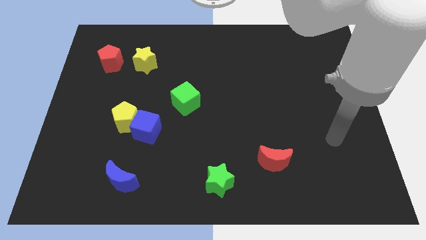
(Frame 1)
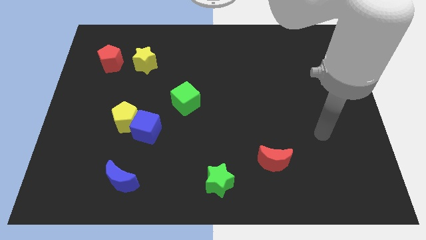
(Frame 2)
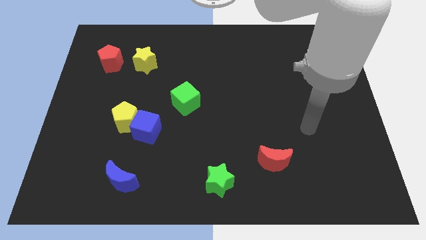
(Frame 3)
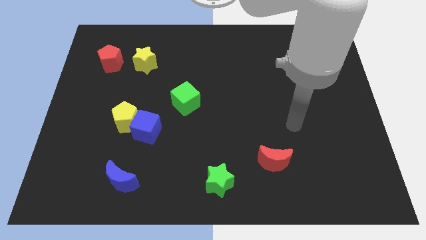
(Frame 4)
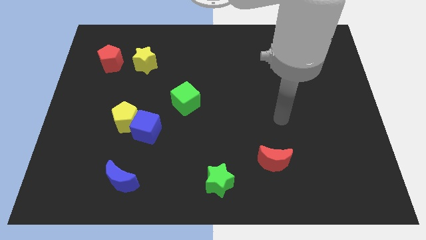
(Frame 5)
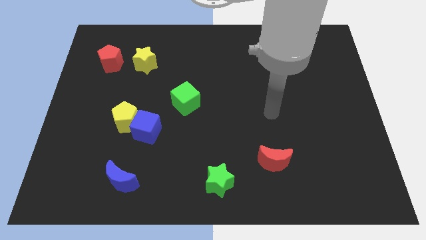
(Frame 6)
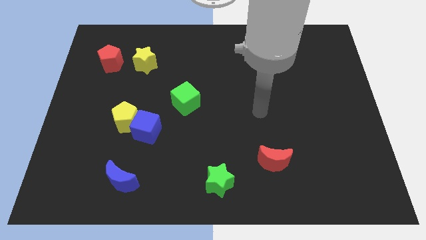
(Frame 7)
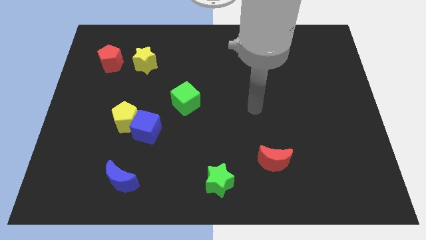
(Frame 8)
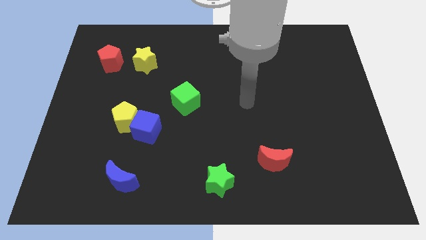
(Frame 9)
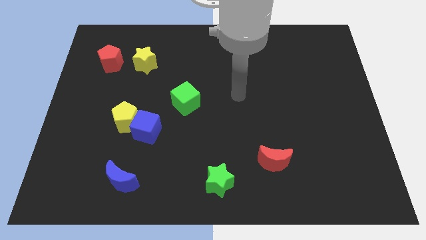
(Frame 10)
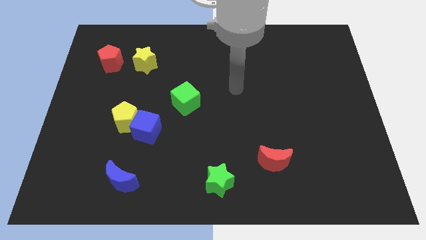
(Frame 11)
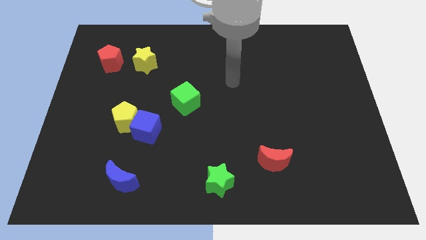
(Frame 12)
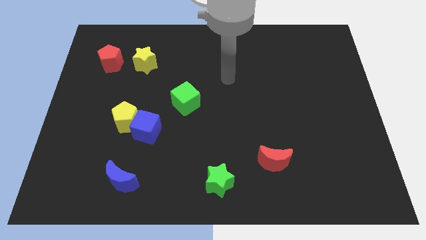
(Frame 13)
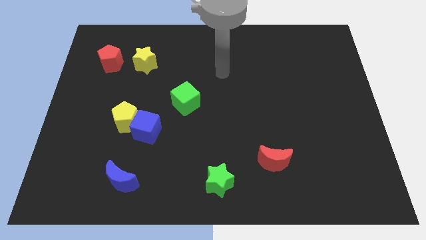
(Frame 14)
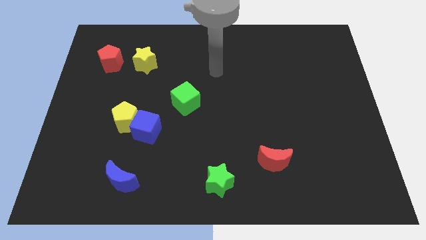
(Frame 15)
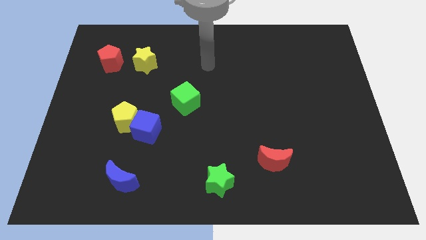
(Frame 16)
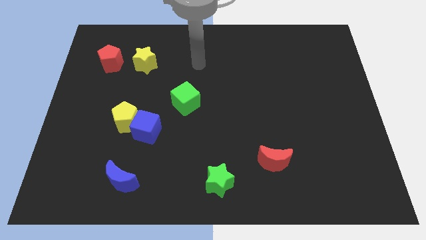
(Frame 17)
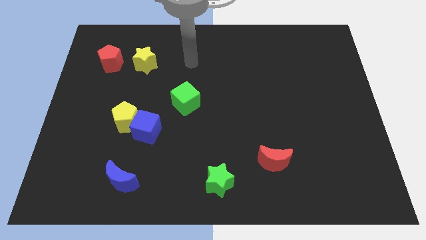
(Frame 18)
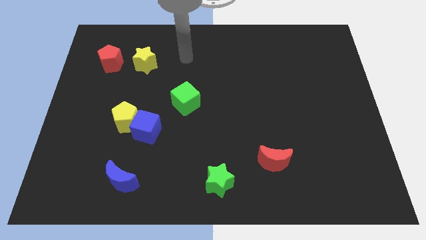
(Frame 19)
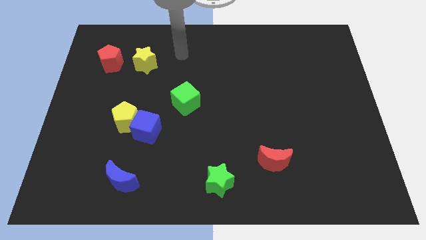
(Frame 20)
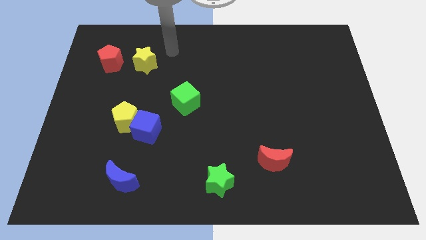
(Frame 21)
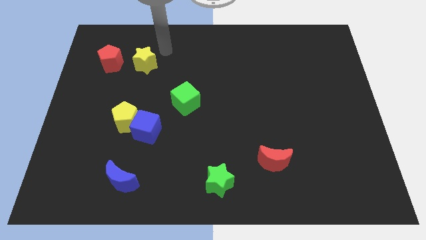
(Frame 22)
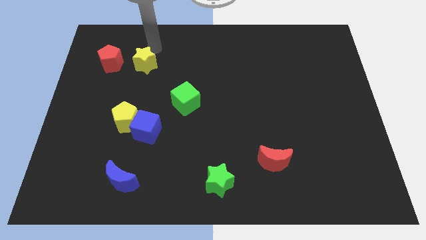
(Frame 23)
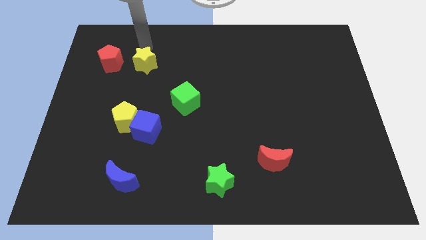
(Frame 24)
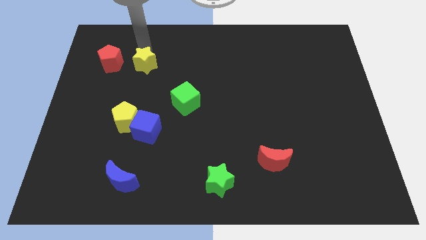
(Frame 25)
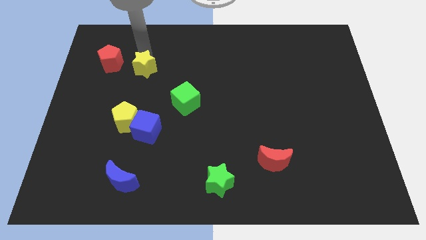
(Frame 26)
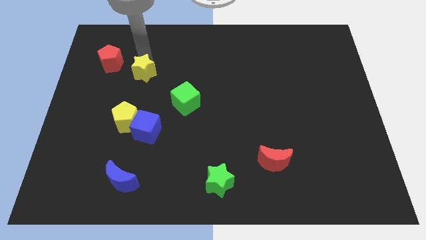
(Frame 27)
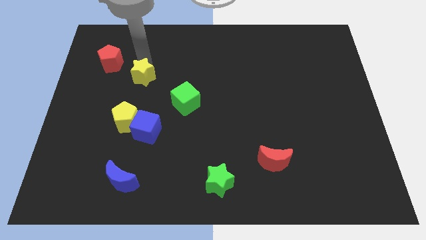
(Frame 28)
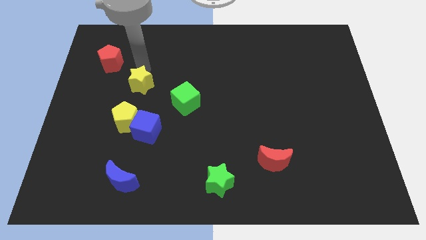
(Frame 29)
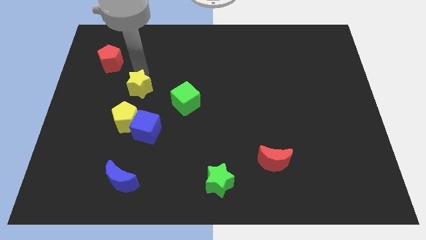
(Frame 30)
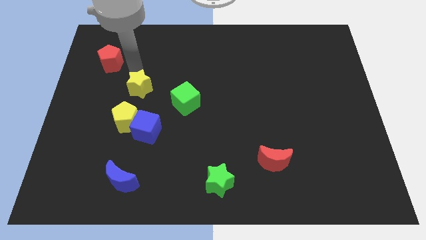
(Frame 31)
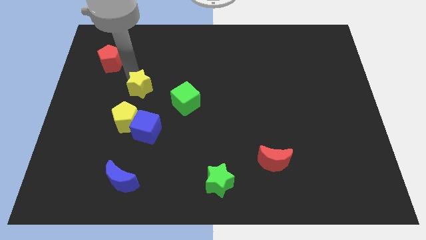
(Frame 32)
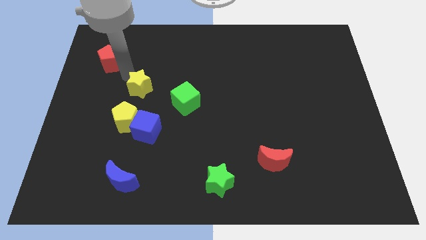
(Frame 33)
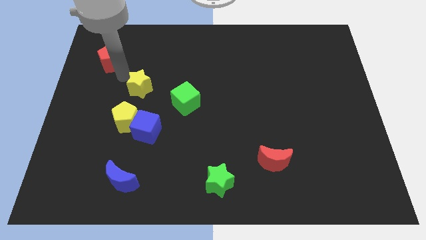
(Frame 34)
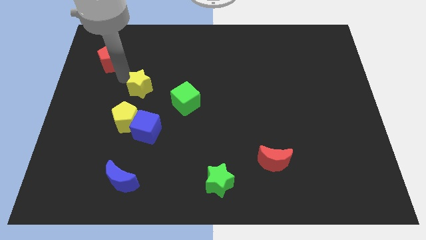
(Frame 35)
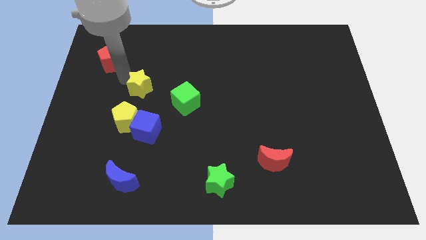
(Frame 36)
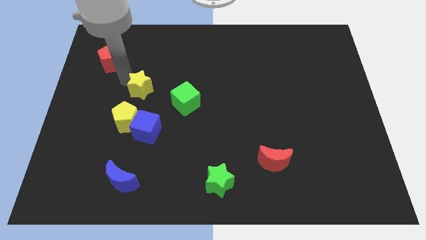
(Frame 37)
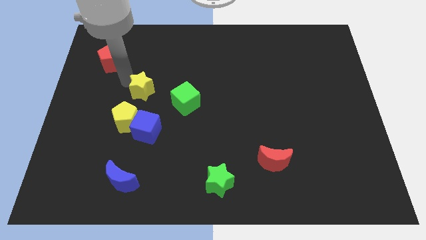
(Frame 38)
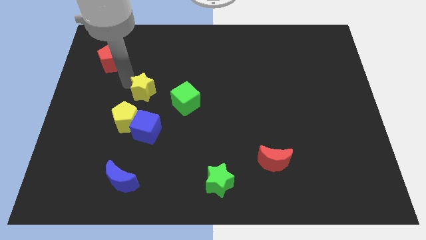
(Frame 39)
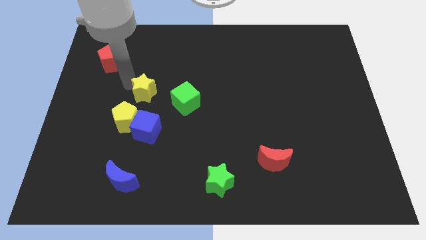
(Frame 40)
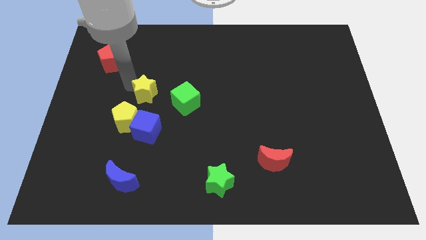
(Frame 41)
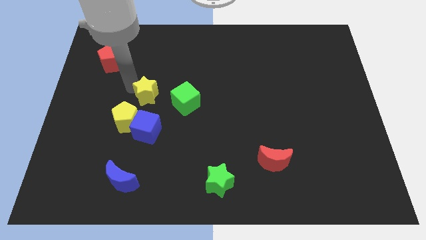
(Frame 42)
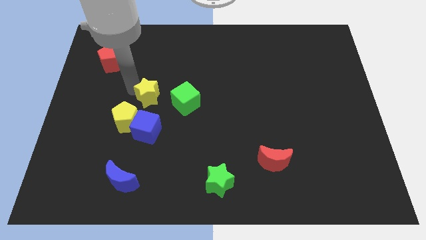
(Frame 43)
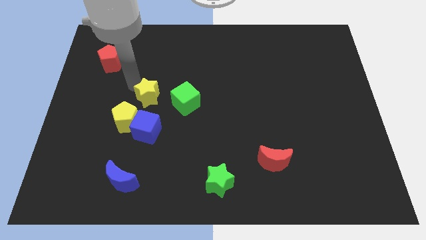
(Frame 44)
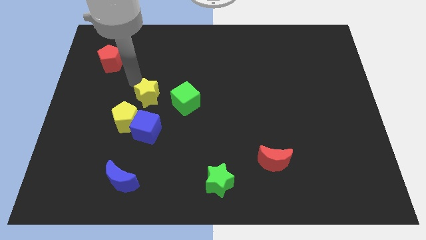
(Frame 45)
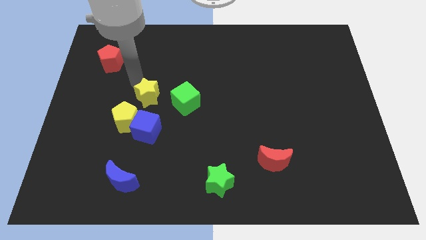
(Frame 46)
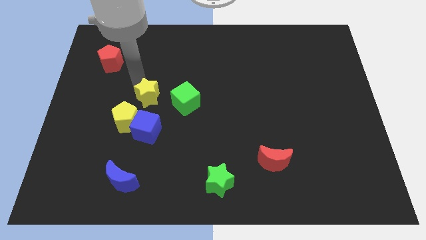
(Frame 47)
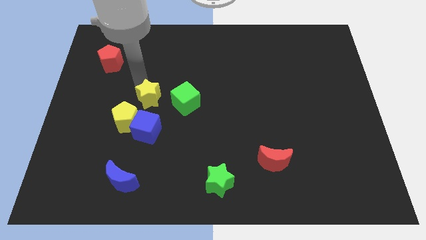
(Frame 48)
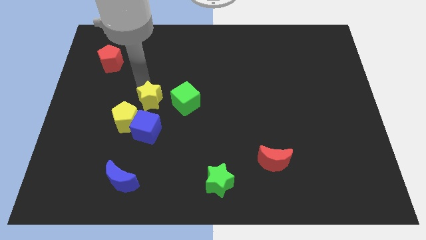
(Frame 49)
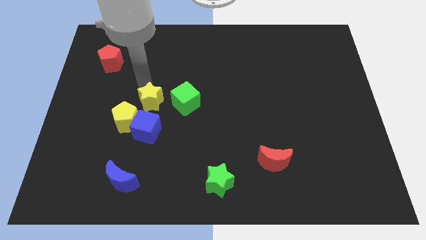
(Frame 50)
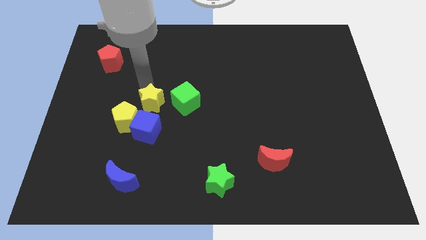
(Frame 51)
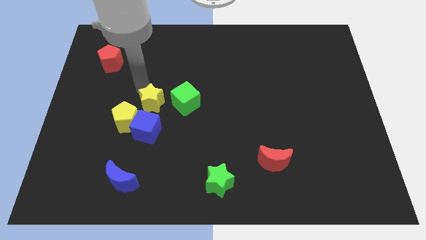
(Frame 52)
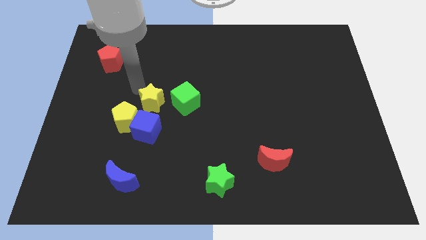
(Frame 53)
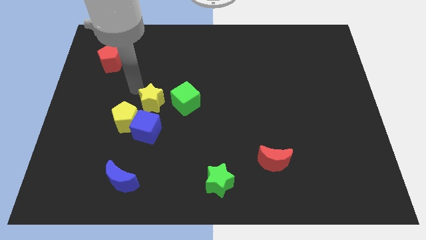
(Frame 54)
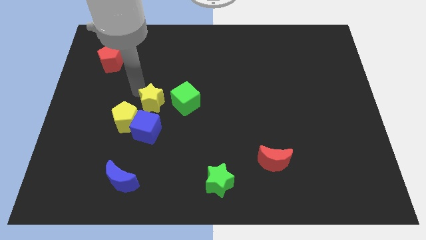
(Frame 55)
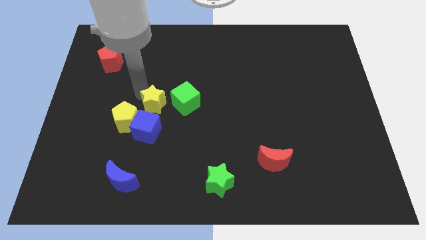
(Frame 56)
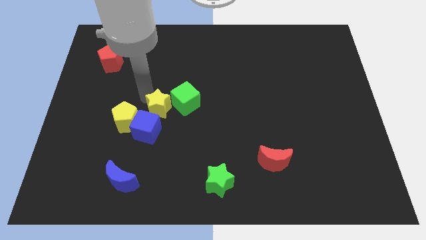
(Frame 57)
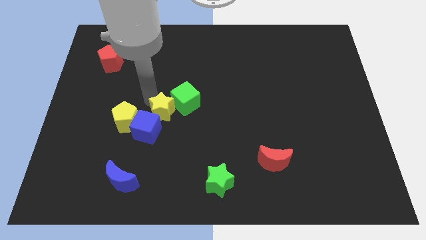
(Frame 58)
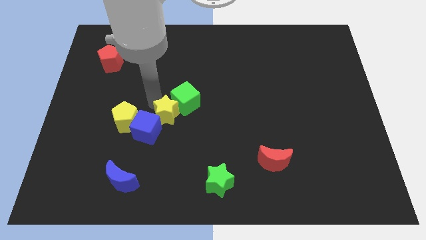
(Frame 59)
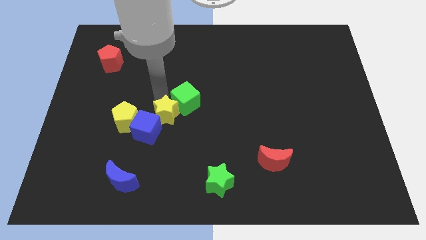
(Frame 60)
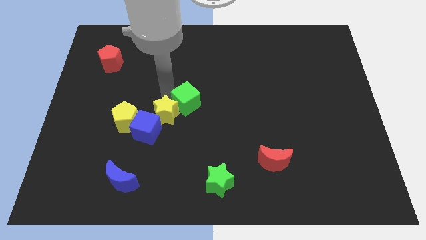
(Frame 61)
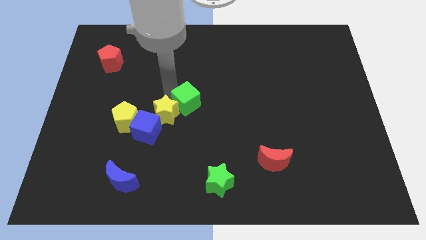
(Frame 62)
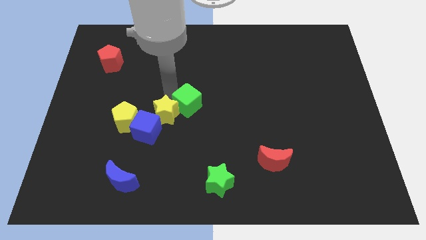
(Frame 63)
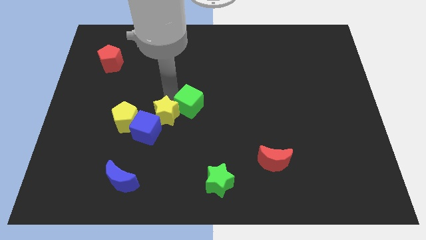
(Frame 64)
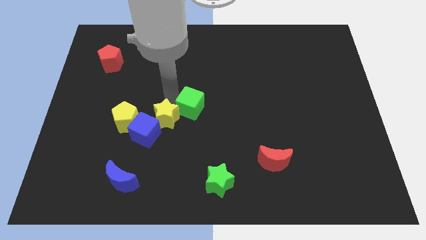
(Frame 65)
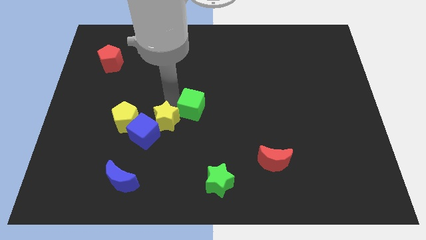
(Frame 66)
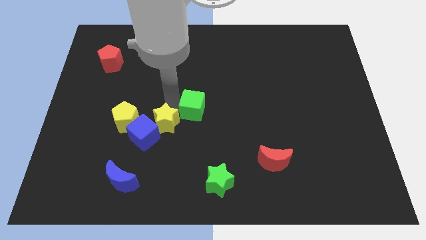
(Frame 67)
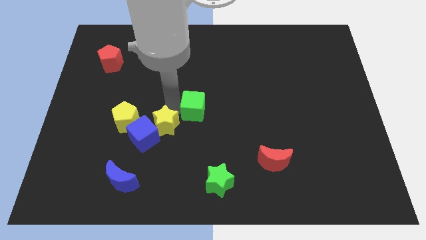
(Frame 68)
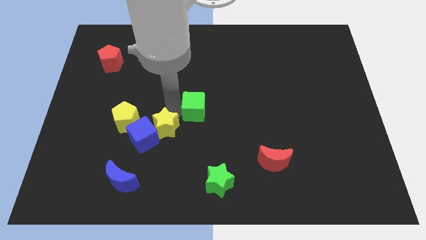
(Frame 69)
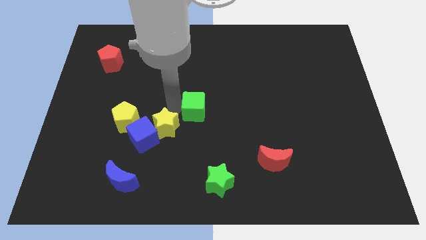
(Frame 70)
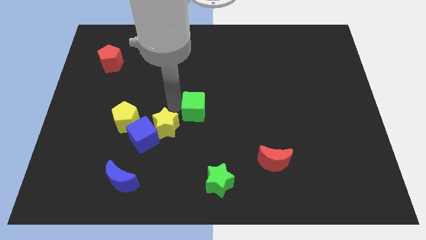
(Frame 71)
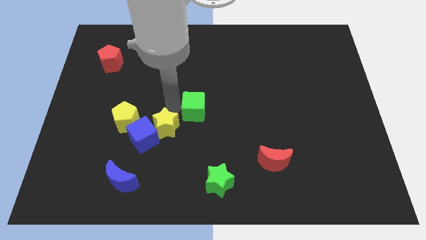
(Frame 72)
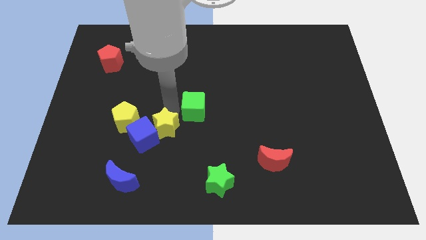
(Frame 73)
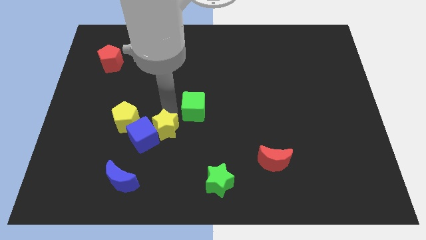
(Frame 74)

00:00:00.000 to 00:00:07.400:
move the yellow star diagonally down and to the right of the yellow pentagon
